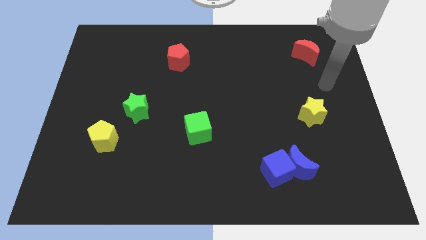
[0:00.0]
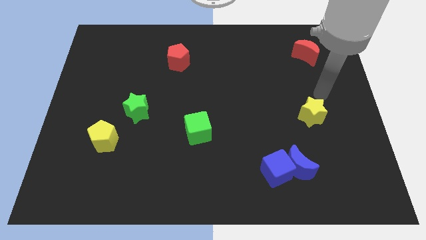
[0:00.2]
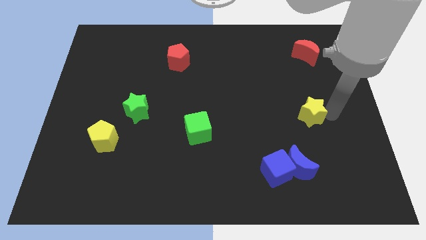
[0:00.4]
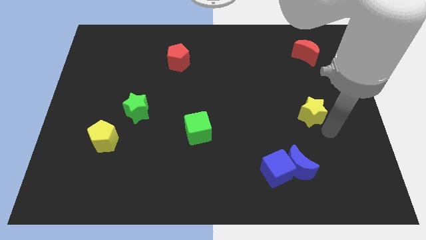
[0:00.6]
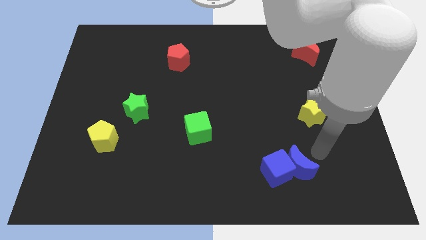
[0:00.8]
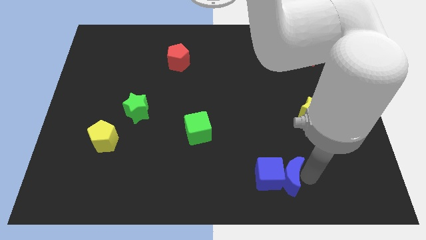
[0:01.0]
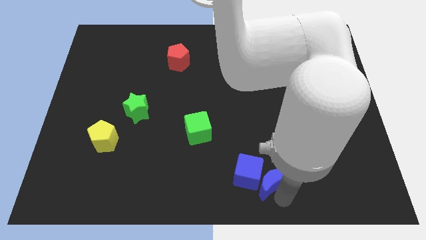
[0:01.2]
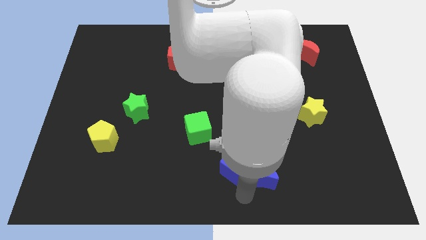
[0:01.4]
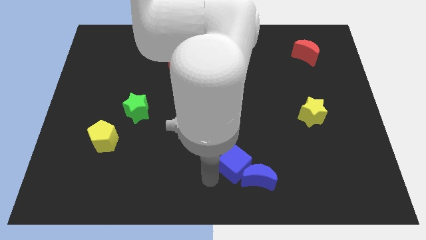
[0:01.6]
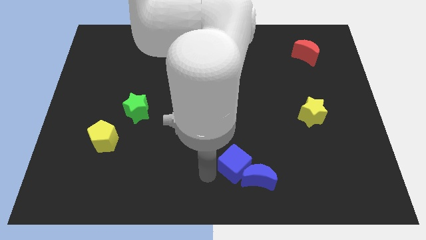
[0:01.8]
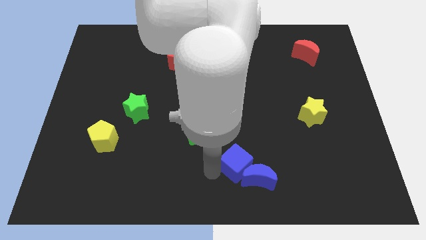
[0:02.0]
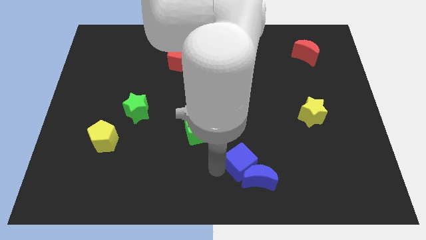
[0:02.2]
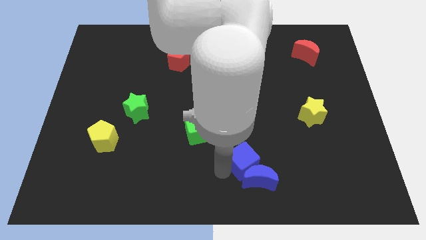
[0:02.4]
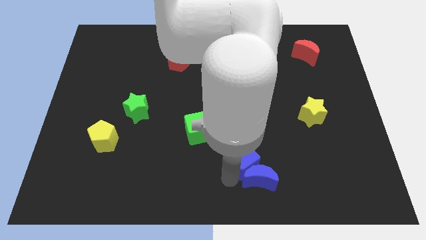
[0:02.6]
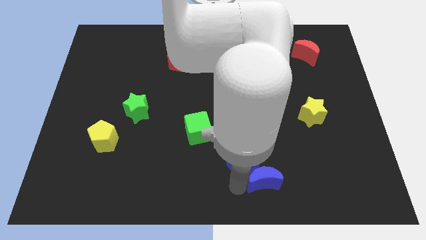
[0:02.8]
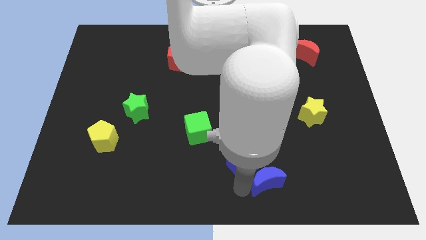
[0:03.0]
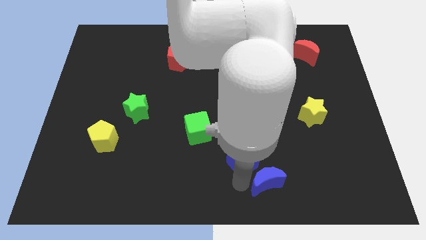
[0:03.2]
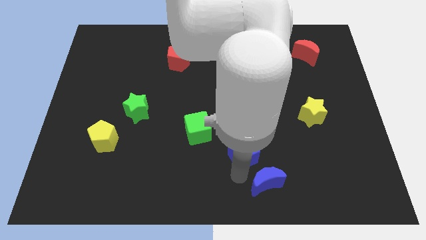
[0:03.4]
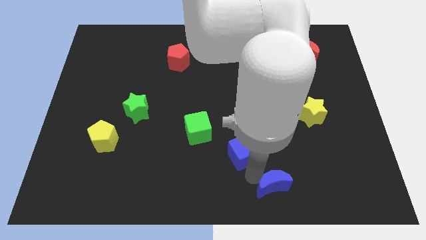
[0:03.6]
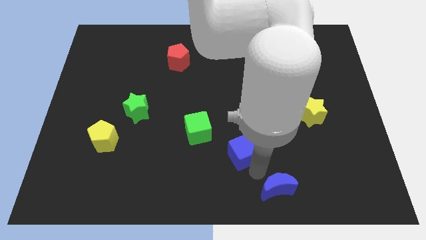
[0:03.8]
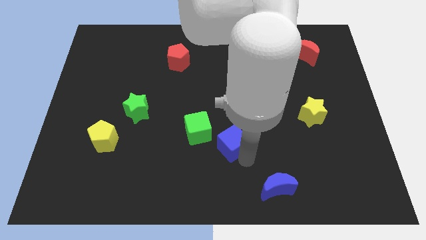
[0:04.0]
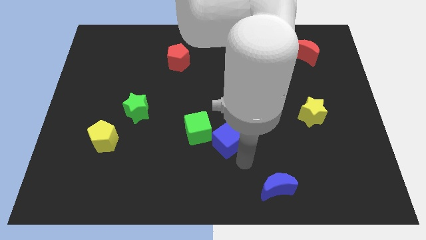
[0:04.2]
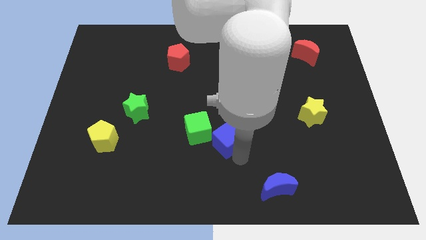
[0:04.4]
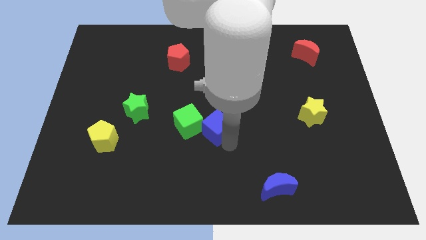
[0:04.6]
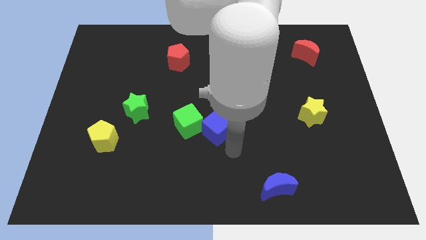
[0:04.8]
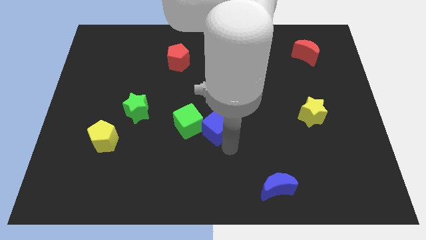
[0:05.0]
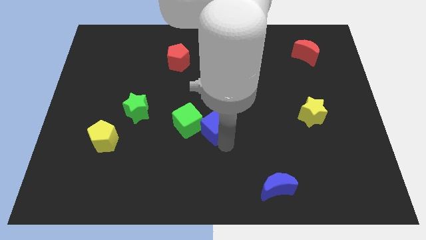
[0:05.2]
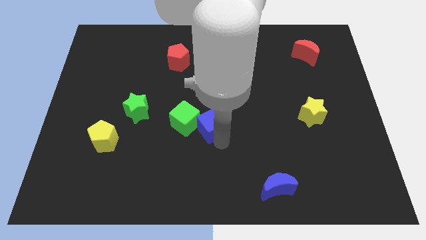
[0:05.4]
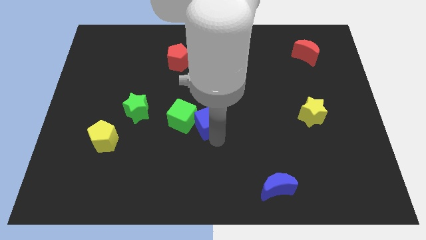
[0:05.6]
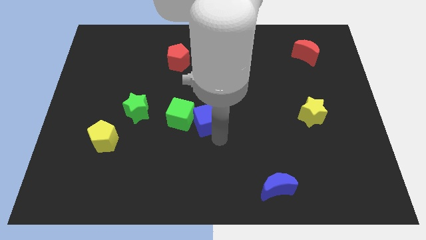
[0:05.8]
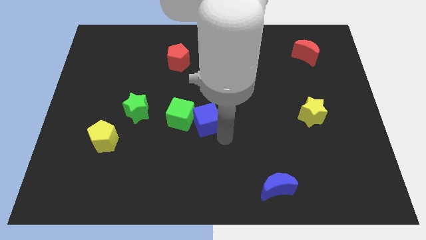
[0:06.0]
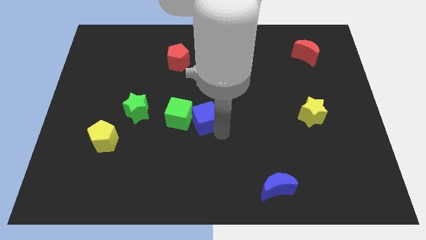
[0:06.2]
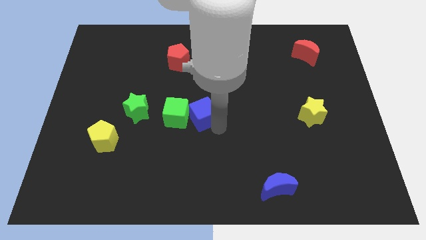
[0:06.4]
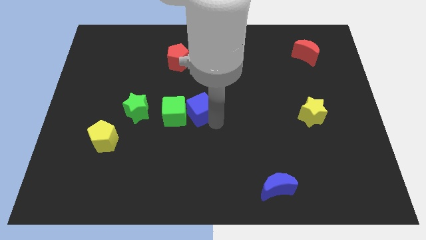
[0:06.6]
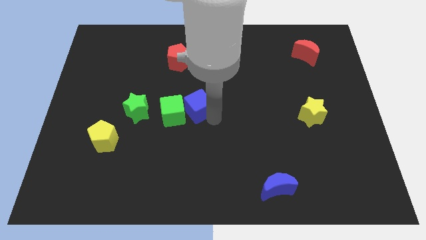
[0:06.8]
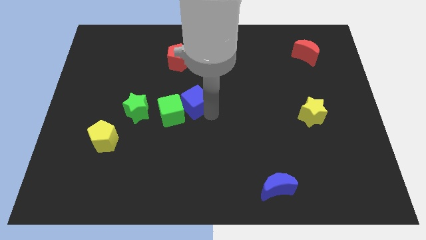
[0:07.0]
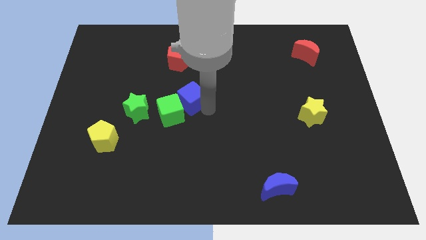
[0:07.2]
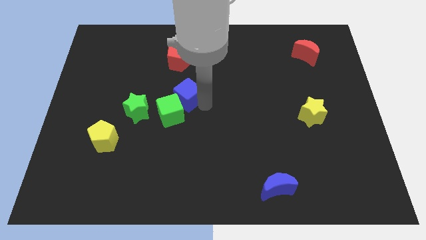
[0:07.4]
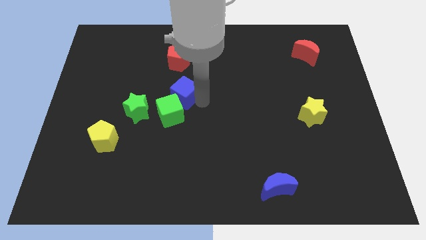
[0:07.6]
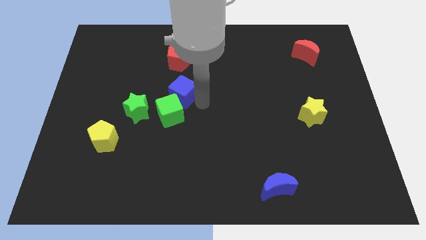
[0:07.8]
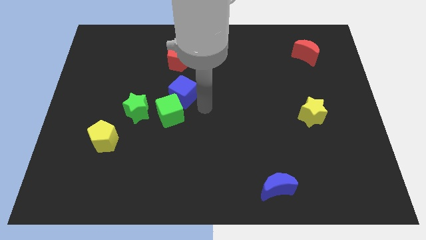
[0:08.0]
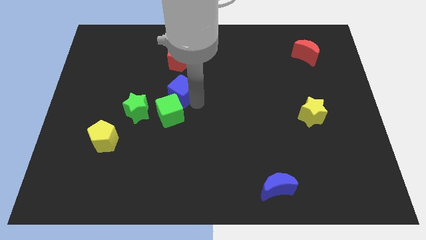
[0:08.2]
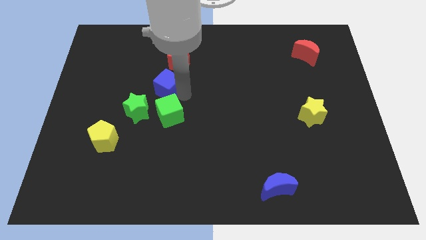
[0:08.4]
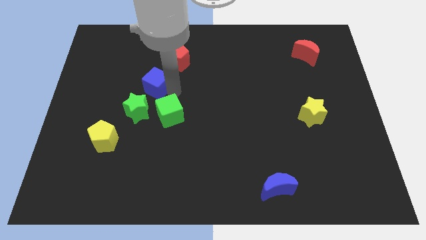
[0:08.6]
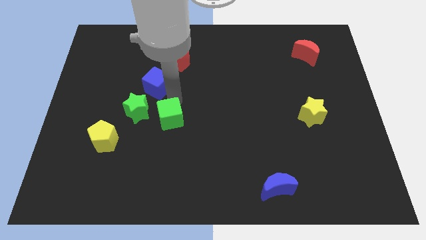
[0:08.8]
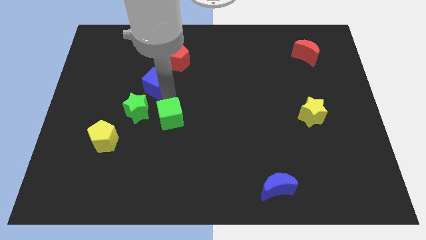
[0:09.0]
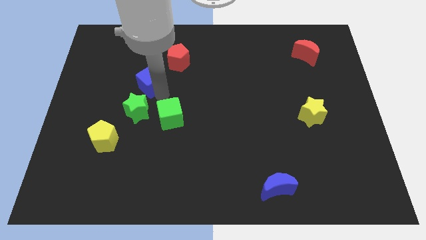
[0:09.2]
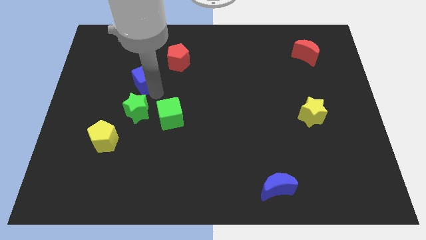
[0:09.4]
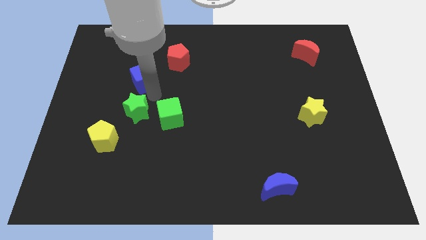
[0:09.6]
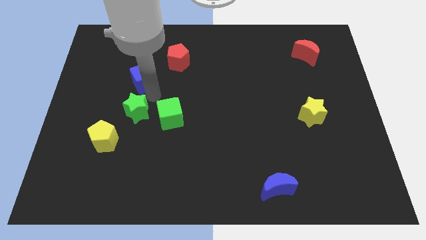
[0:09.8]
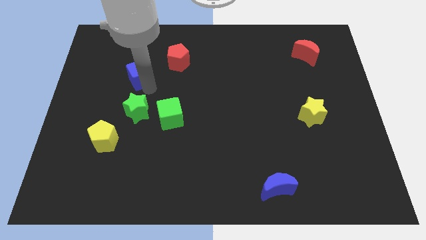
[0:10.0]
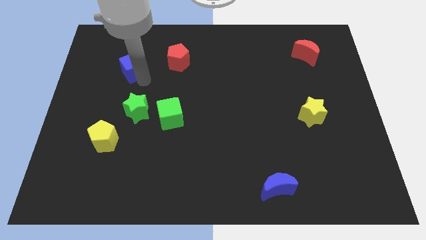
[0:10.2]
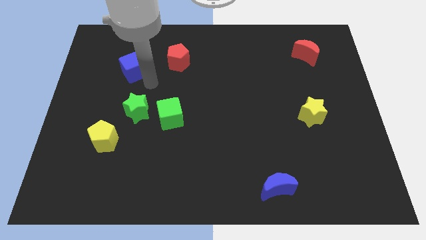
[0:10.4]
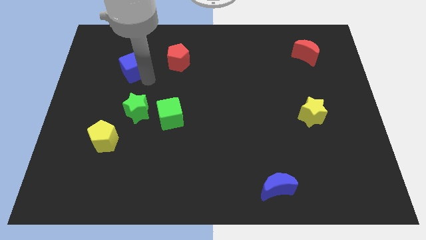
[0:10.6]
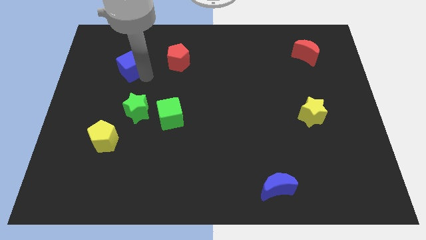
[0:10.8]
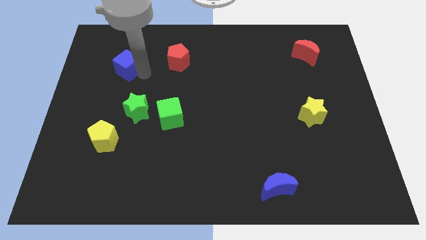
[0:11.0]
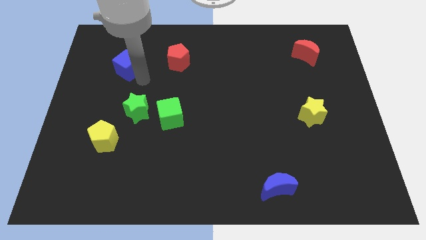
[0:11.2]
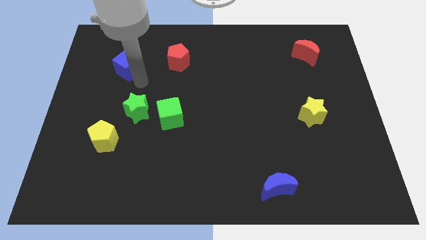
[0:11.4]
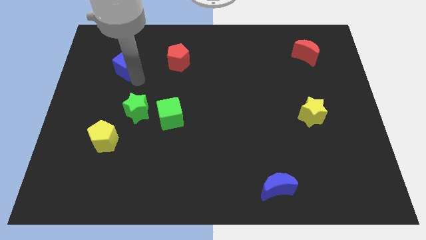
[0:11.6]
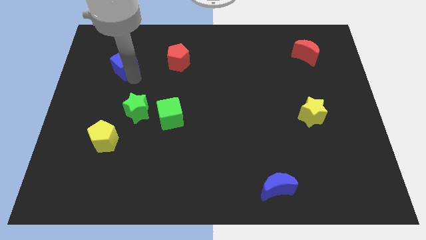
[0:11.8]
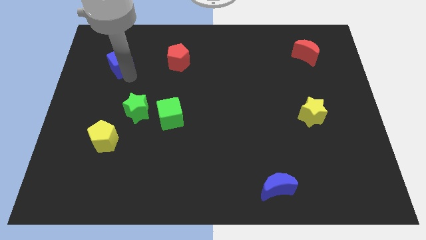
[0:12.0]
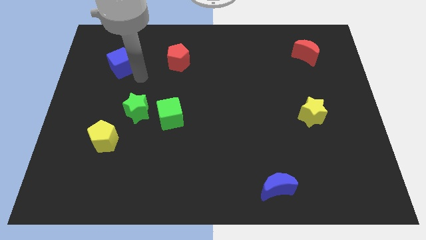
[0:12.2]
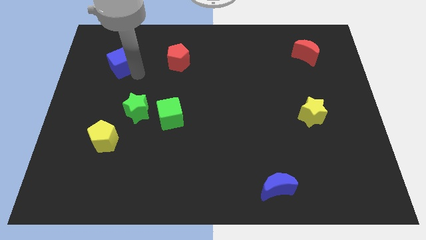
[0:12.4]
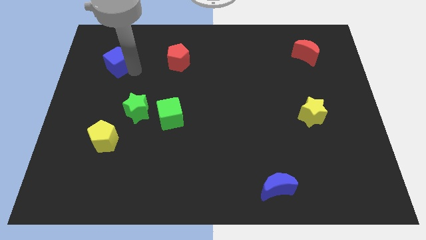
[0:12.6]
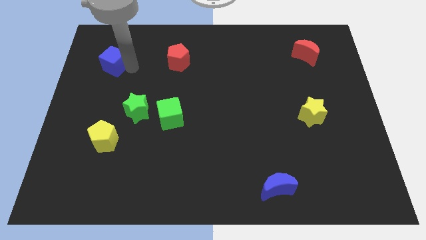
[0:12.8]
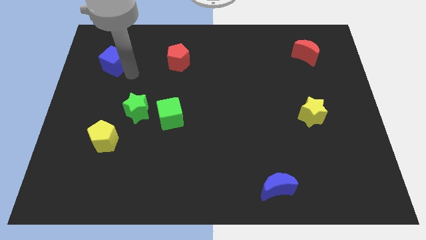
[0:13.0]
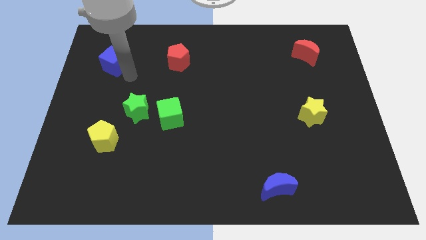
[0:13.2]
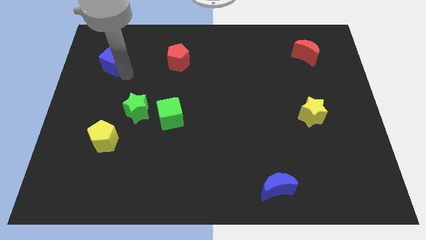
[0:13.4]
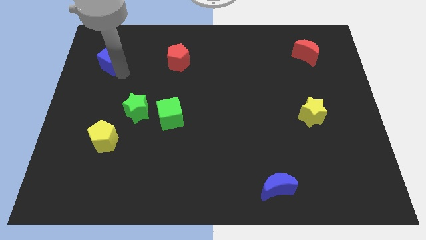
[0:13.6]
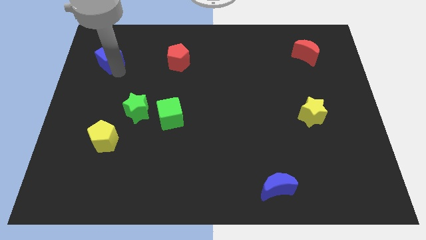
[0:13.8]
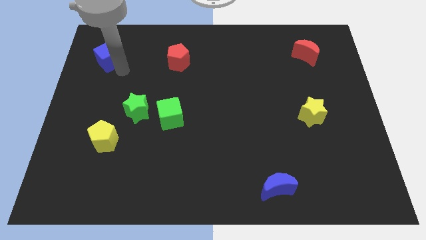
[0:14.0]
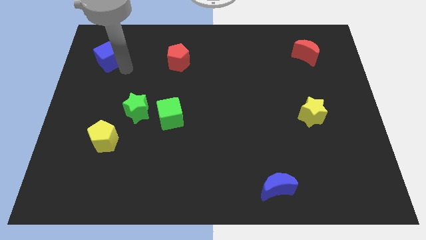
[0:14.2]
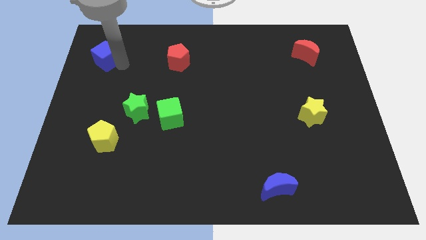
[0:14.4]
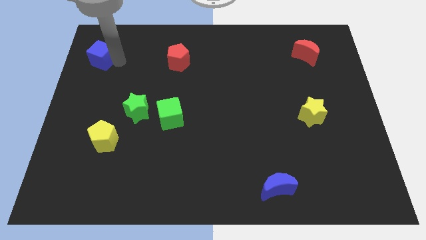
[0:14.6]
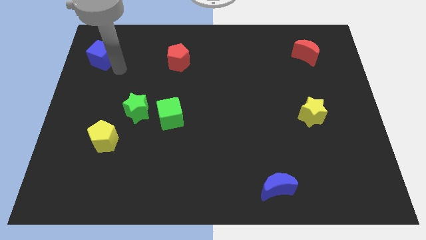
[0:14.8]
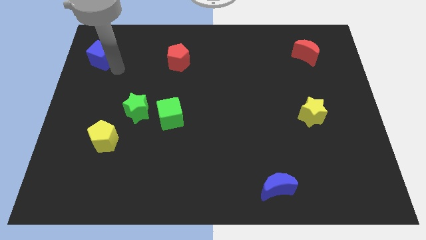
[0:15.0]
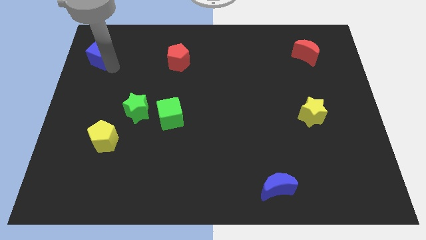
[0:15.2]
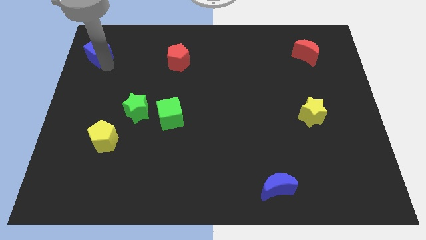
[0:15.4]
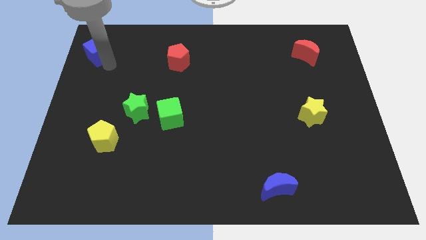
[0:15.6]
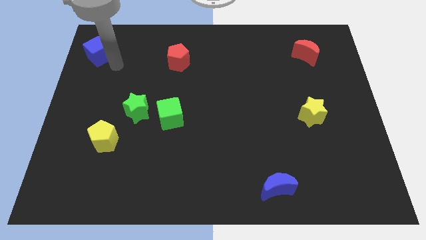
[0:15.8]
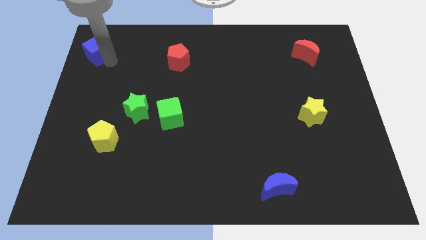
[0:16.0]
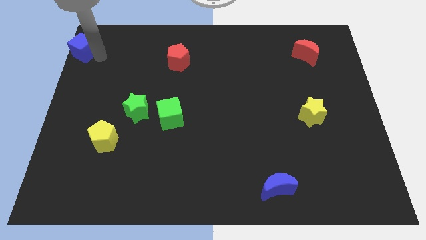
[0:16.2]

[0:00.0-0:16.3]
slide the blue cube to the top left of the board
